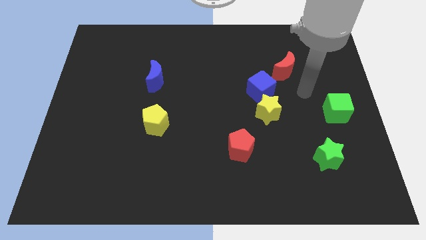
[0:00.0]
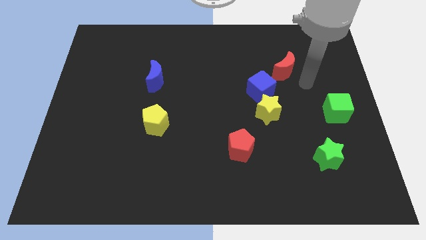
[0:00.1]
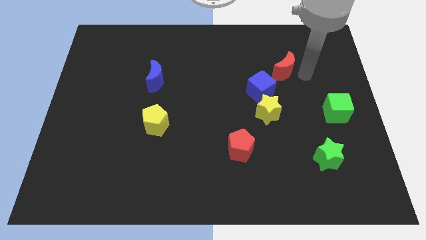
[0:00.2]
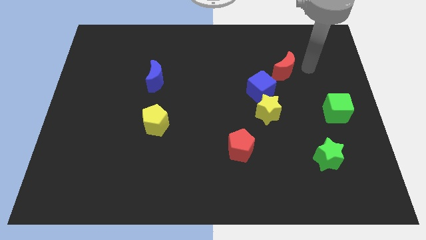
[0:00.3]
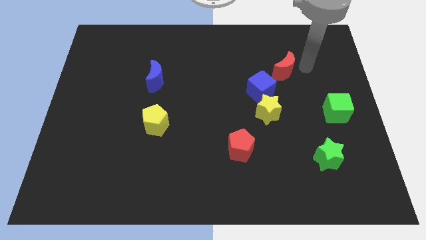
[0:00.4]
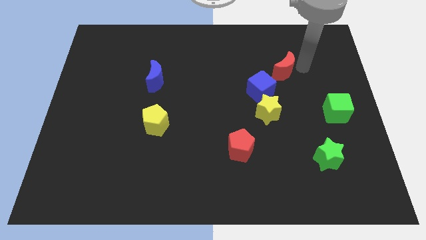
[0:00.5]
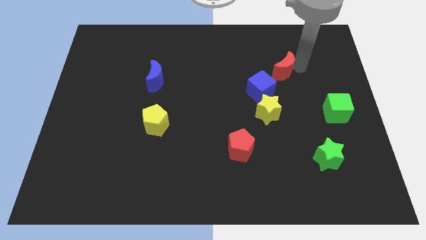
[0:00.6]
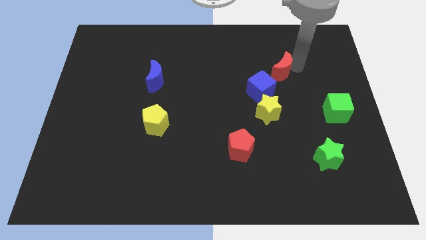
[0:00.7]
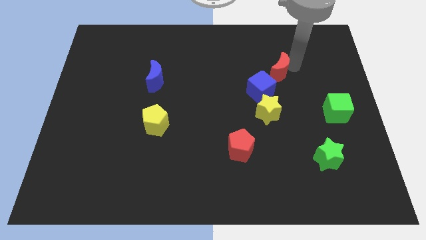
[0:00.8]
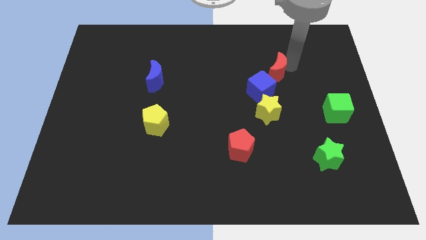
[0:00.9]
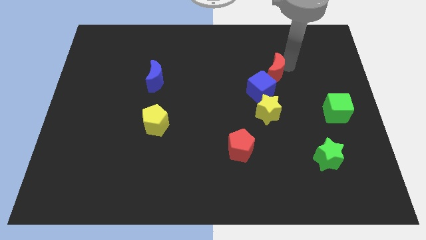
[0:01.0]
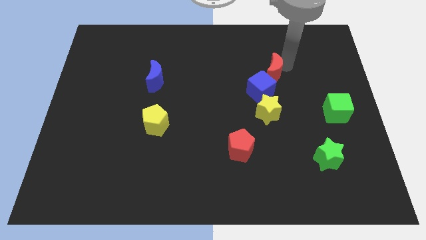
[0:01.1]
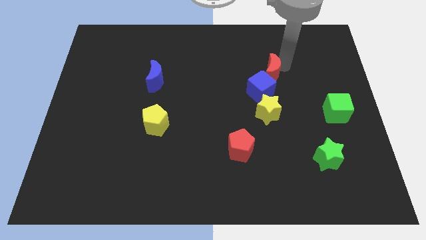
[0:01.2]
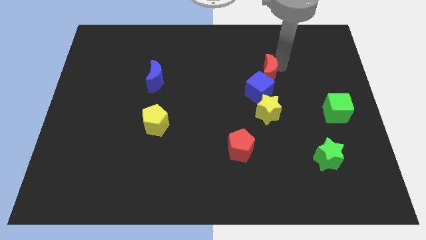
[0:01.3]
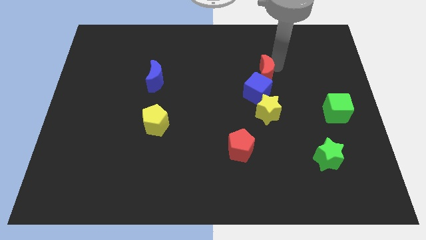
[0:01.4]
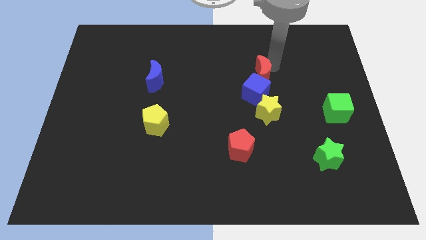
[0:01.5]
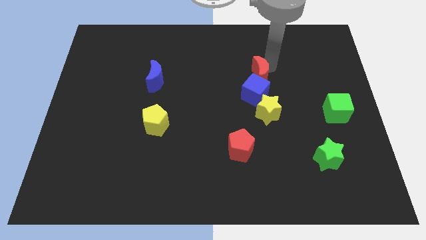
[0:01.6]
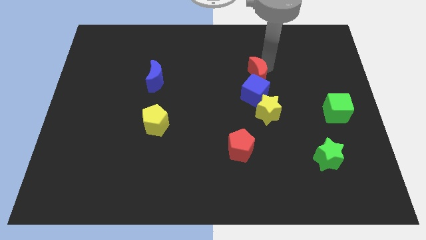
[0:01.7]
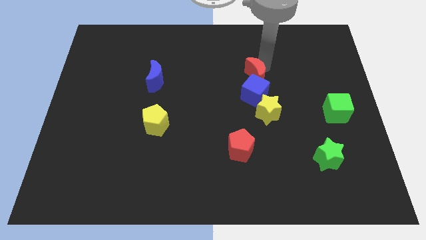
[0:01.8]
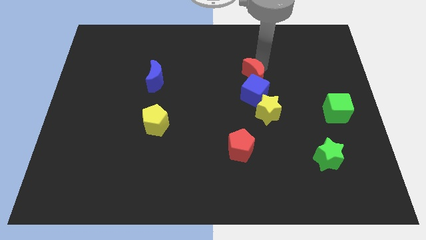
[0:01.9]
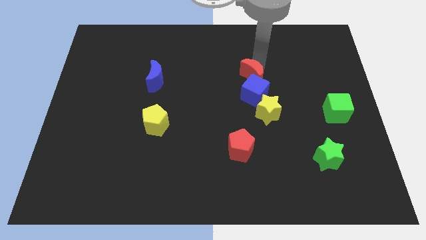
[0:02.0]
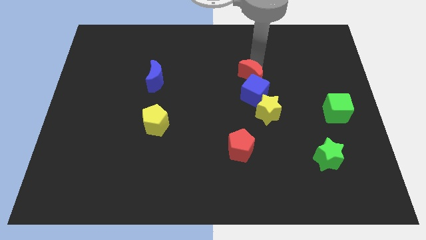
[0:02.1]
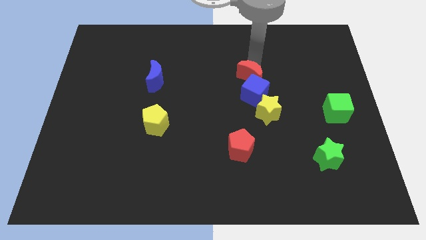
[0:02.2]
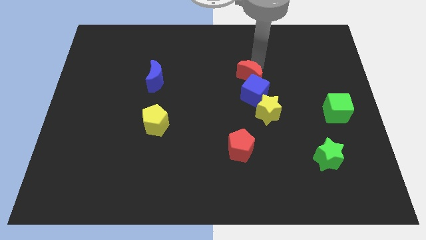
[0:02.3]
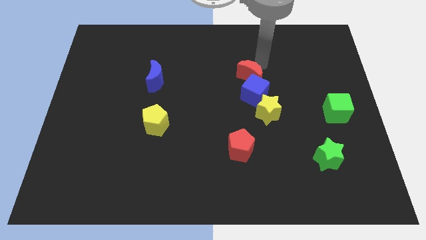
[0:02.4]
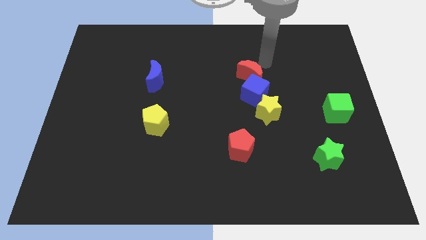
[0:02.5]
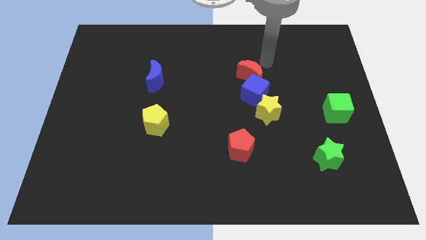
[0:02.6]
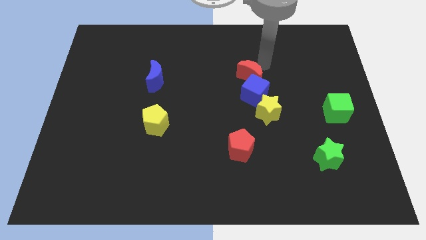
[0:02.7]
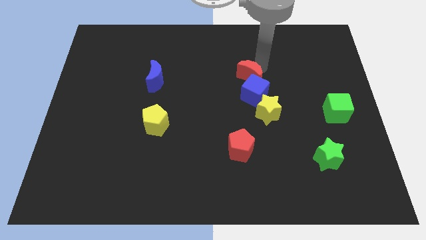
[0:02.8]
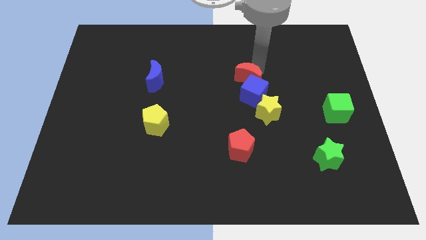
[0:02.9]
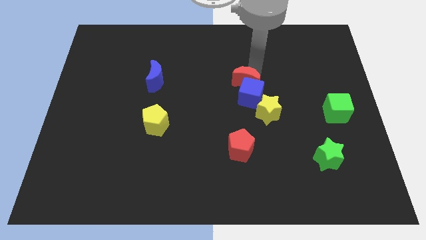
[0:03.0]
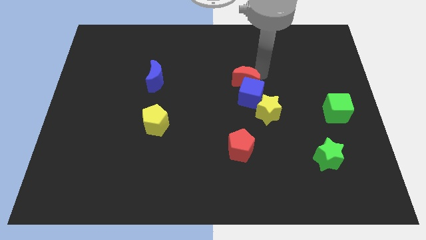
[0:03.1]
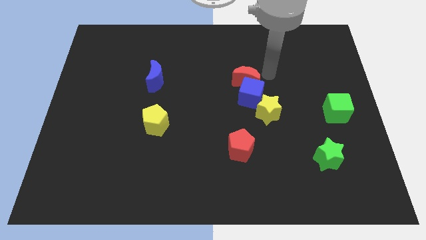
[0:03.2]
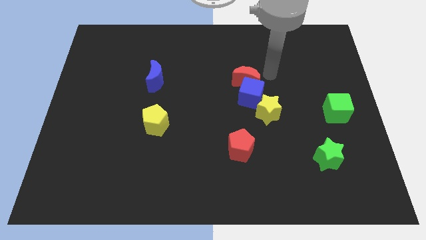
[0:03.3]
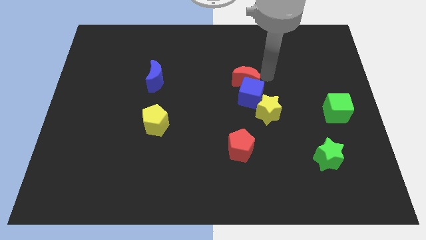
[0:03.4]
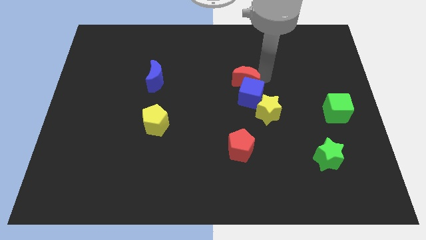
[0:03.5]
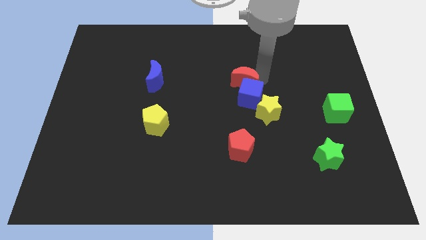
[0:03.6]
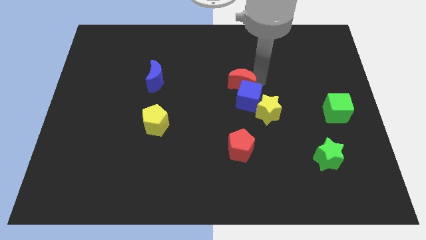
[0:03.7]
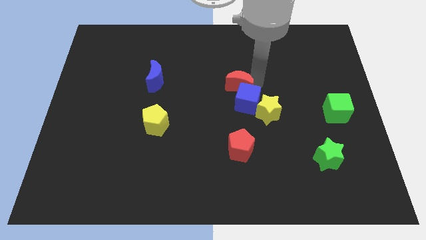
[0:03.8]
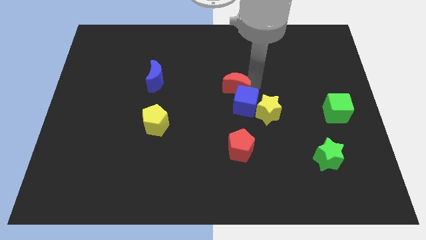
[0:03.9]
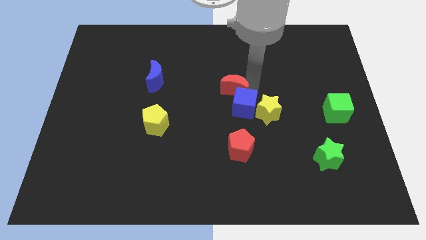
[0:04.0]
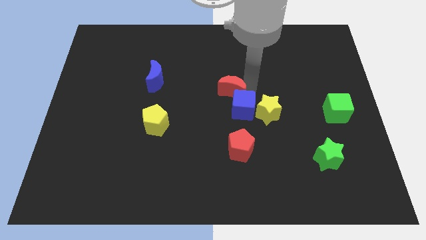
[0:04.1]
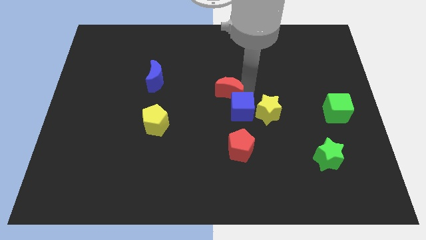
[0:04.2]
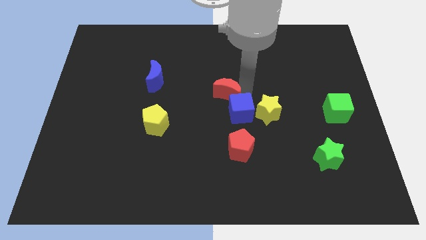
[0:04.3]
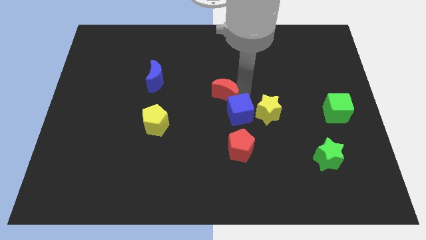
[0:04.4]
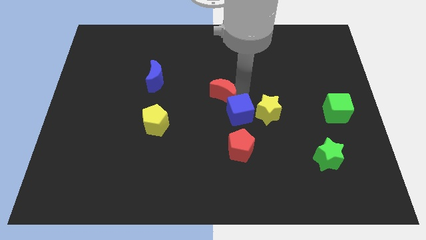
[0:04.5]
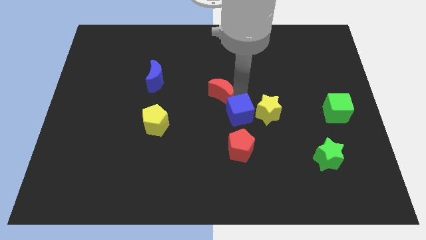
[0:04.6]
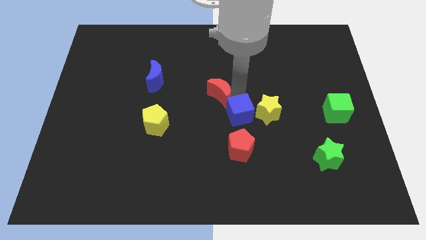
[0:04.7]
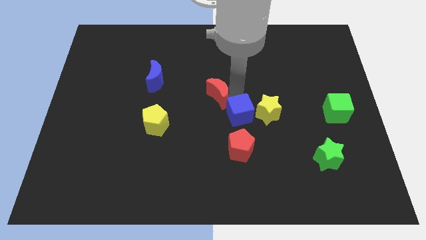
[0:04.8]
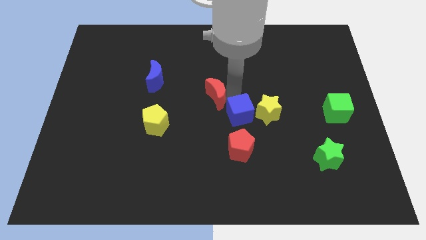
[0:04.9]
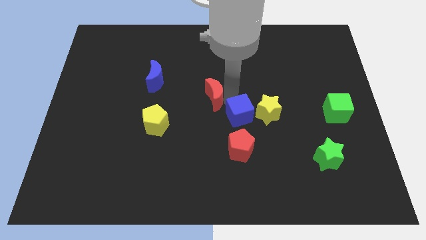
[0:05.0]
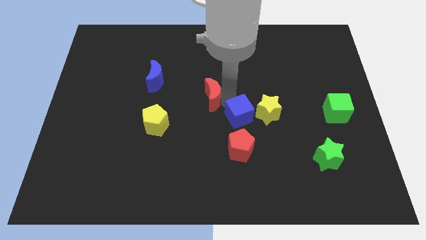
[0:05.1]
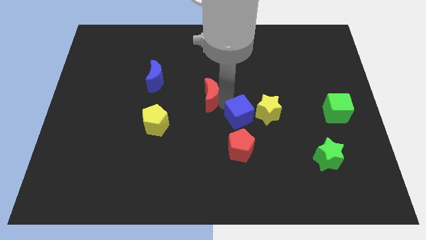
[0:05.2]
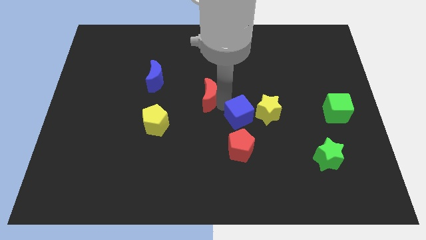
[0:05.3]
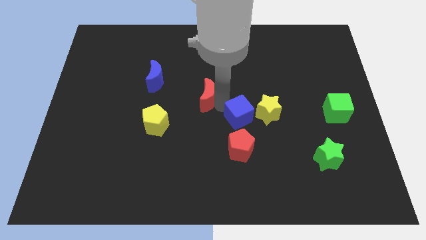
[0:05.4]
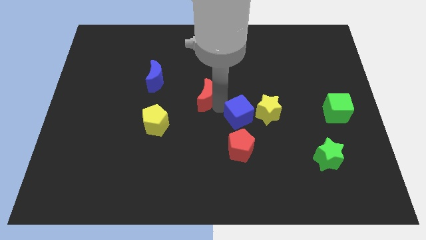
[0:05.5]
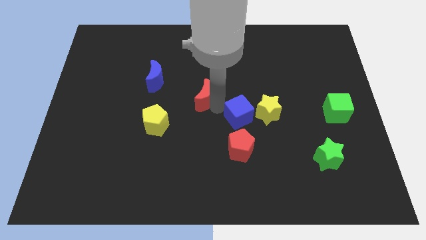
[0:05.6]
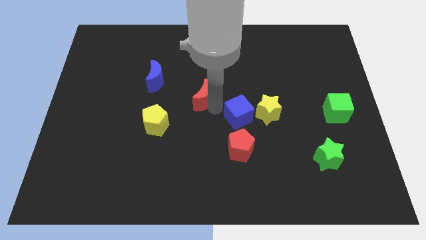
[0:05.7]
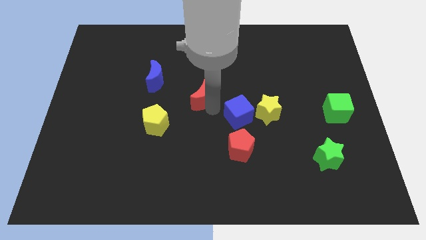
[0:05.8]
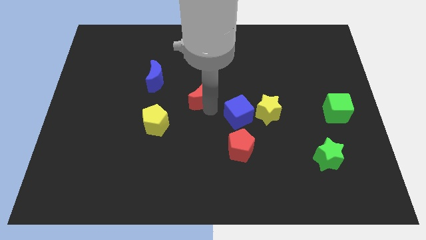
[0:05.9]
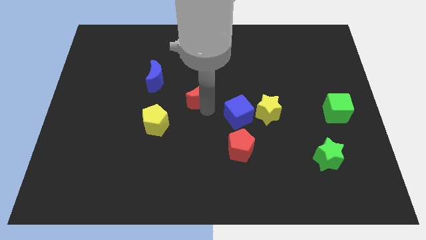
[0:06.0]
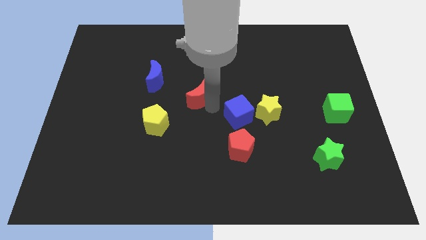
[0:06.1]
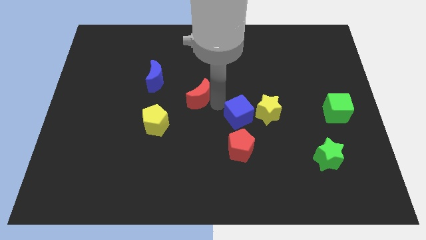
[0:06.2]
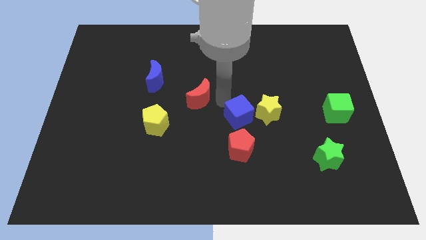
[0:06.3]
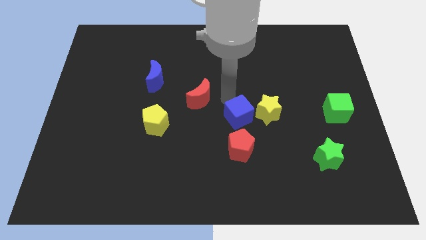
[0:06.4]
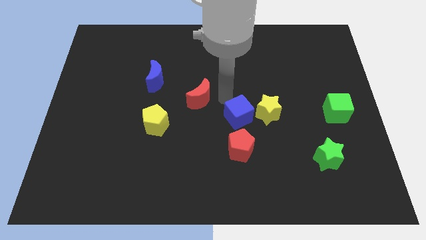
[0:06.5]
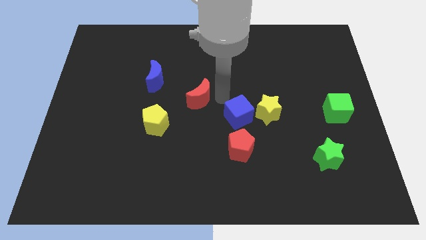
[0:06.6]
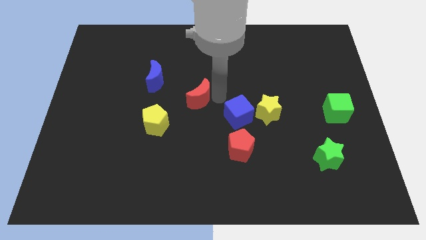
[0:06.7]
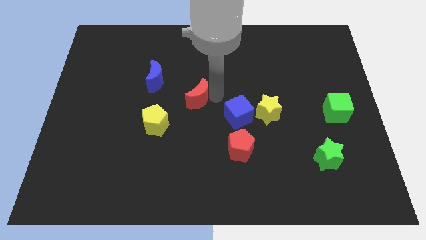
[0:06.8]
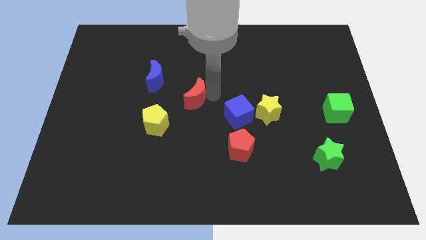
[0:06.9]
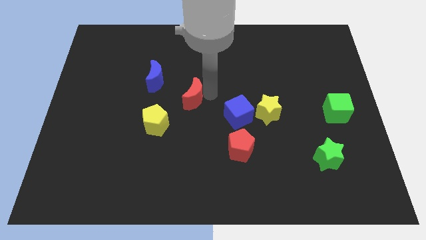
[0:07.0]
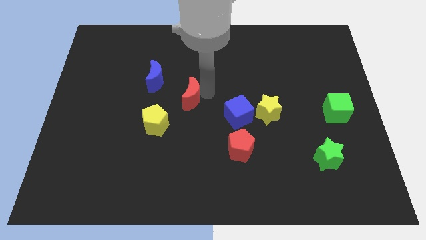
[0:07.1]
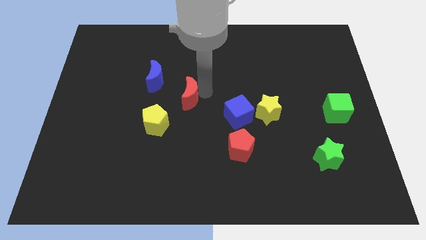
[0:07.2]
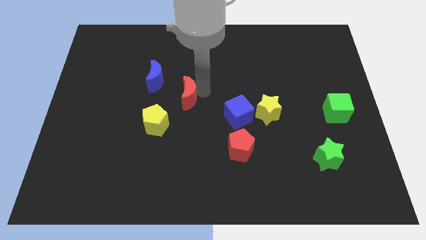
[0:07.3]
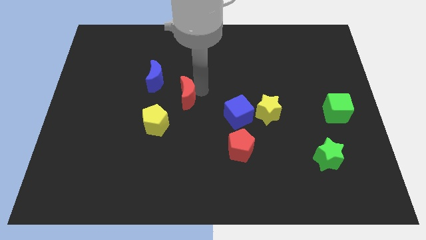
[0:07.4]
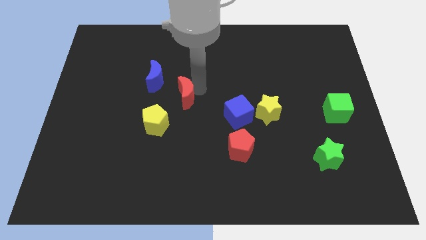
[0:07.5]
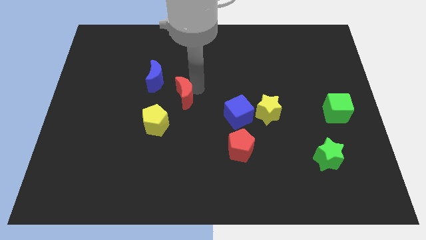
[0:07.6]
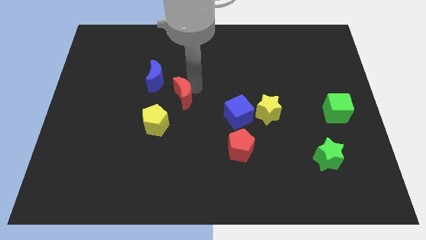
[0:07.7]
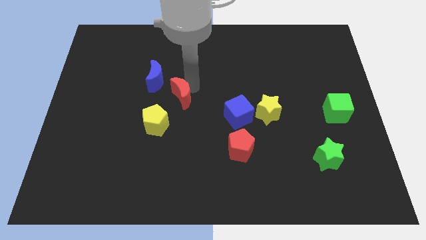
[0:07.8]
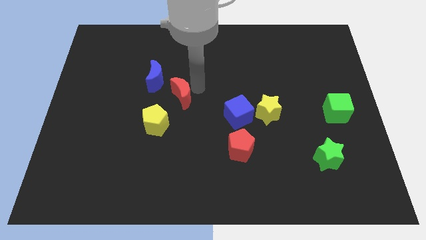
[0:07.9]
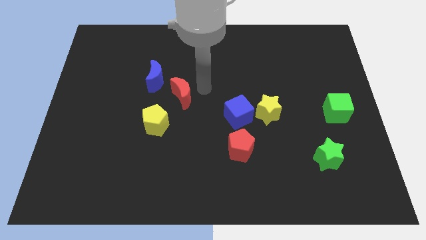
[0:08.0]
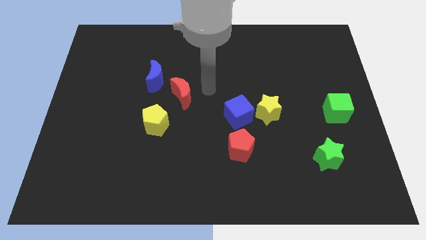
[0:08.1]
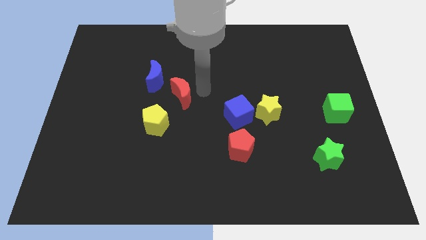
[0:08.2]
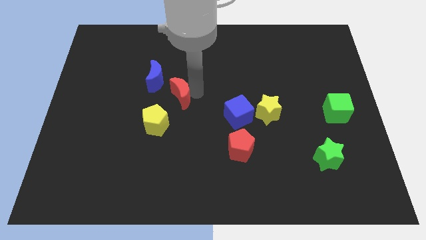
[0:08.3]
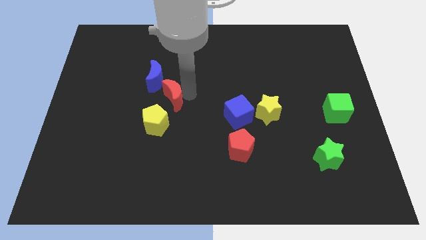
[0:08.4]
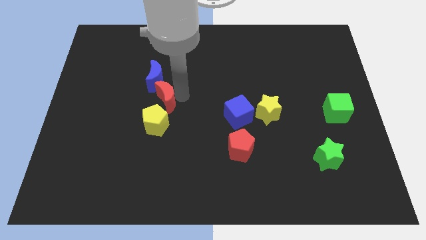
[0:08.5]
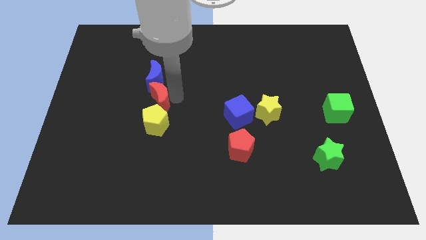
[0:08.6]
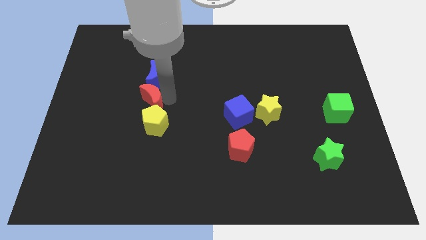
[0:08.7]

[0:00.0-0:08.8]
push the red moon diagonally up and to the left of the yellow pentagon

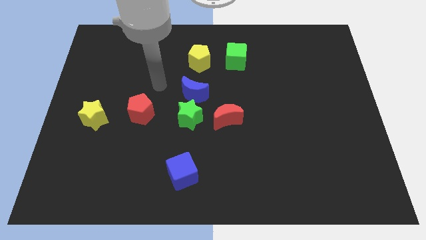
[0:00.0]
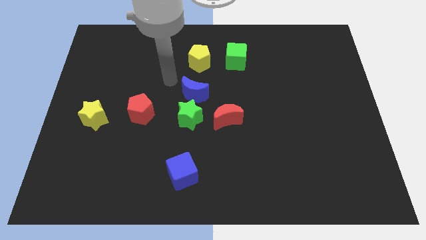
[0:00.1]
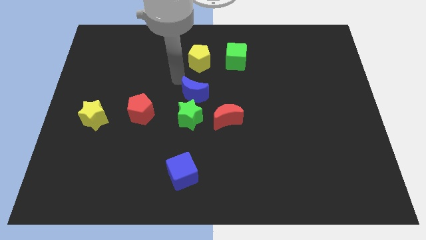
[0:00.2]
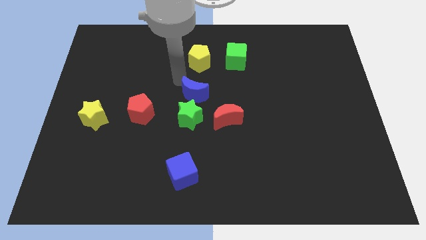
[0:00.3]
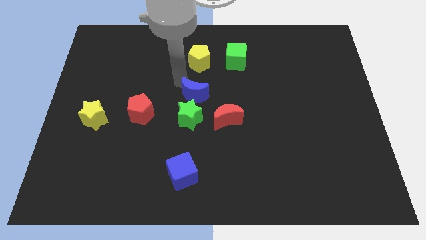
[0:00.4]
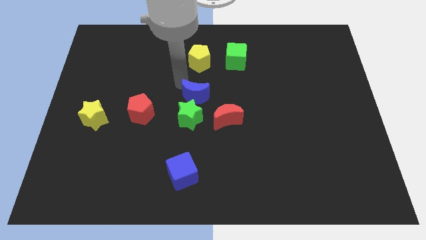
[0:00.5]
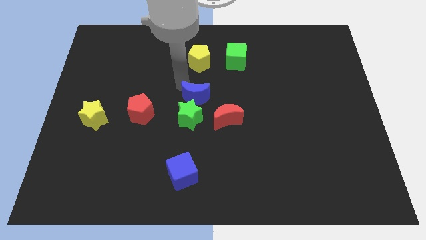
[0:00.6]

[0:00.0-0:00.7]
put the blue moon just right of the red pentagon
